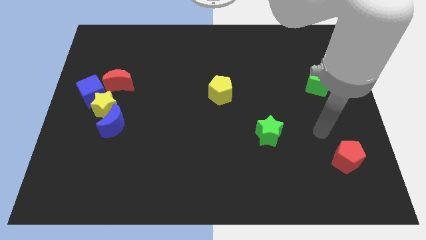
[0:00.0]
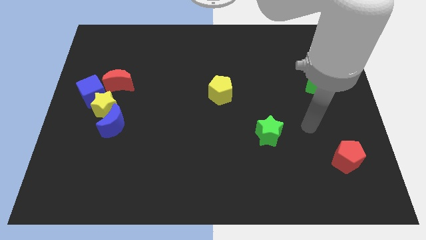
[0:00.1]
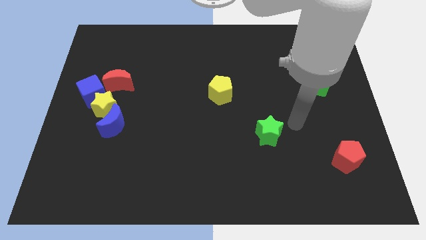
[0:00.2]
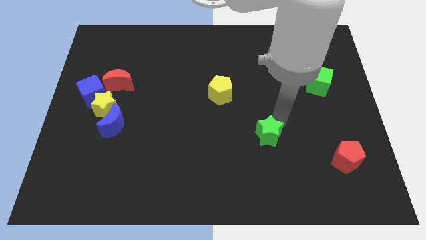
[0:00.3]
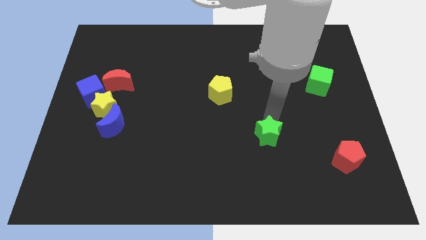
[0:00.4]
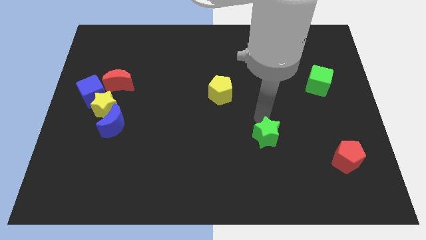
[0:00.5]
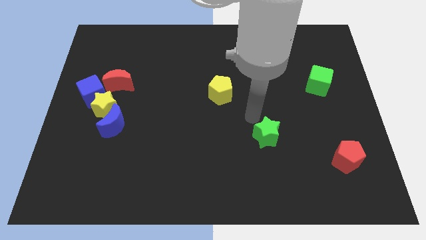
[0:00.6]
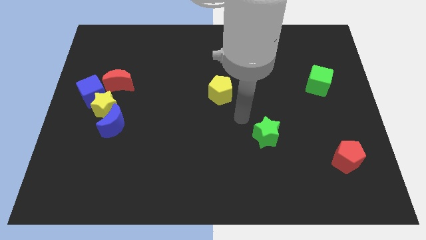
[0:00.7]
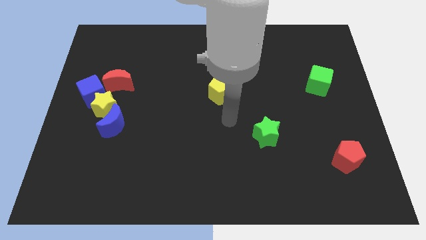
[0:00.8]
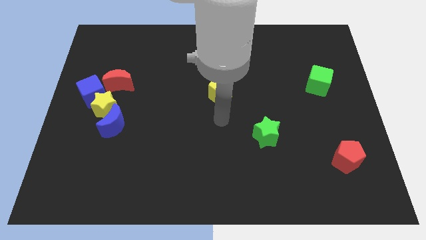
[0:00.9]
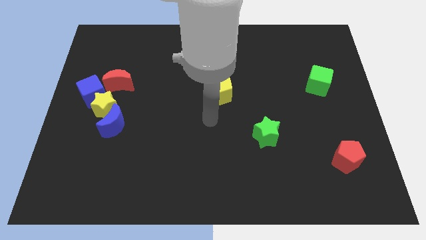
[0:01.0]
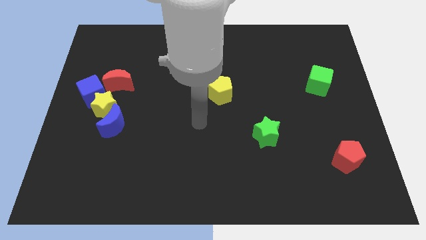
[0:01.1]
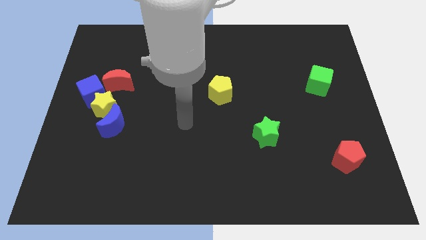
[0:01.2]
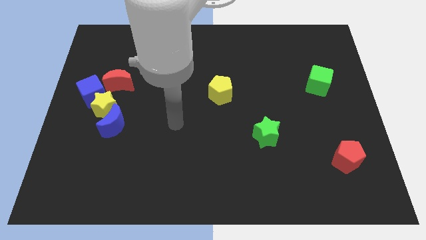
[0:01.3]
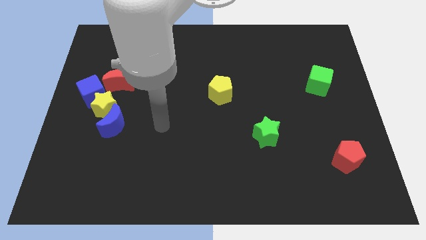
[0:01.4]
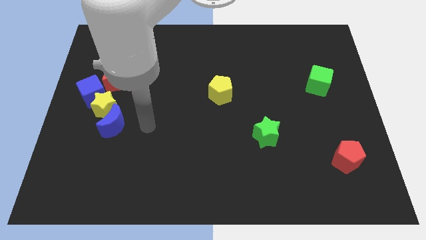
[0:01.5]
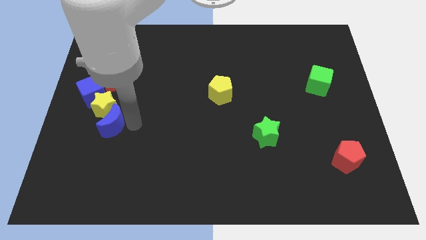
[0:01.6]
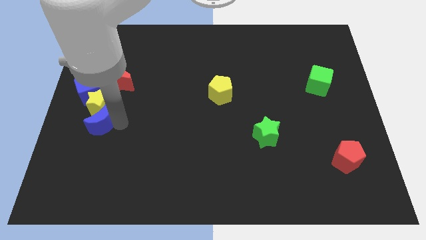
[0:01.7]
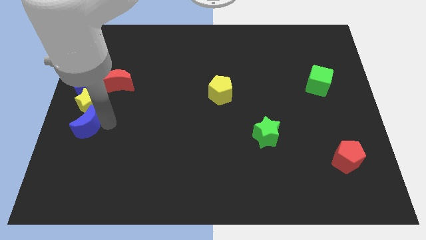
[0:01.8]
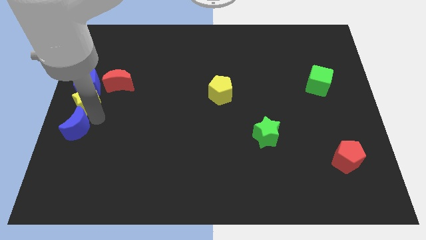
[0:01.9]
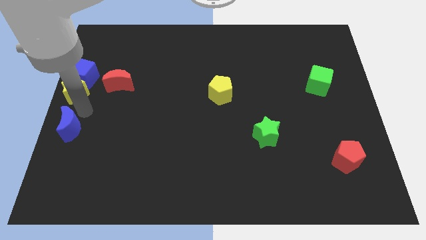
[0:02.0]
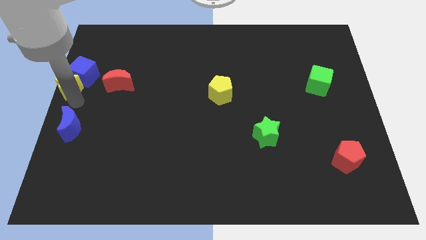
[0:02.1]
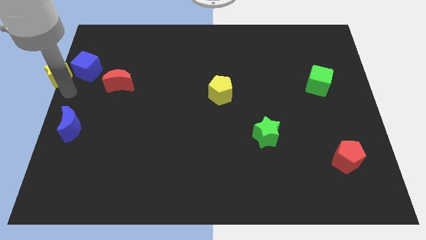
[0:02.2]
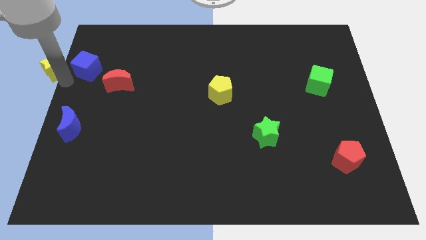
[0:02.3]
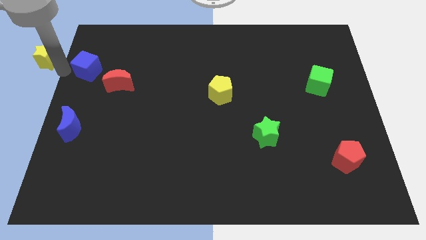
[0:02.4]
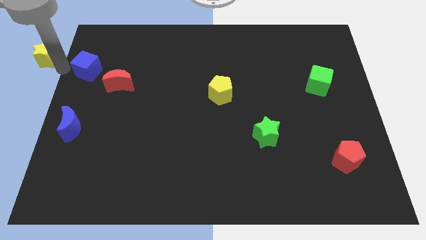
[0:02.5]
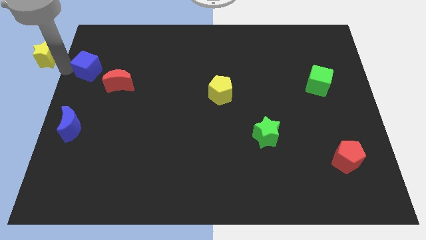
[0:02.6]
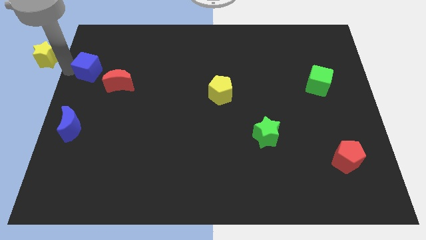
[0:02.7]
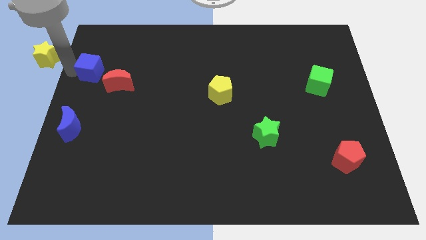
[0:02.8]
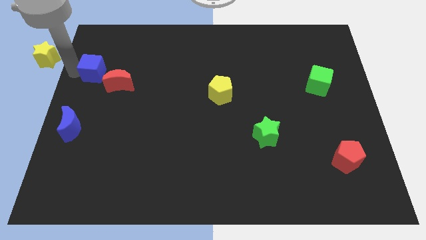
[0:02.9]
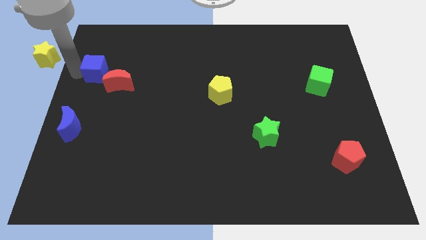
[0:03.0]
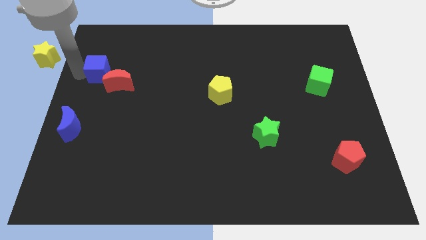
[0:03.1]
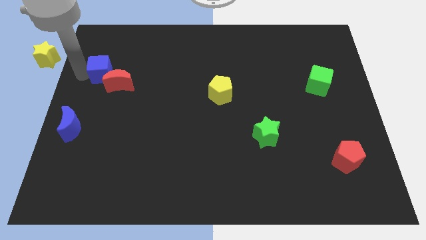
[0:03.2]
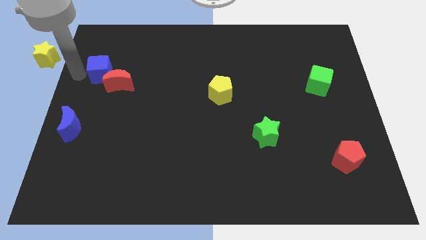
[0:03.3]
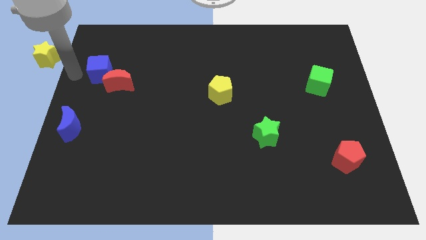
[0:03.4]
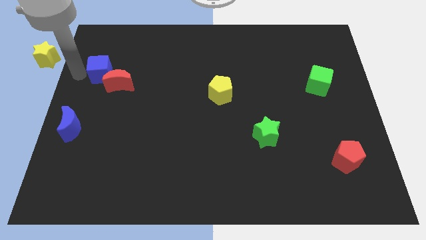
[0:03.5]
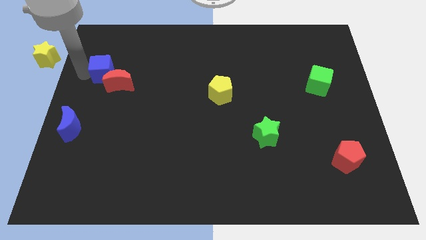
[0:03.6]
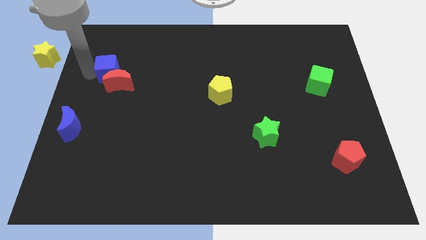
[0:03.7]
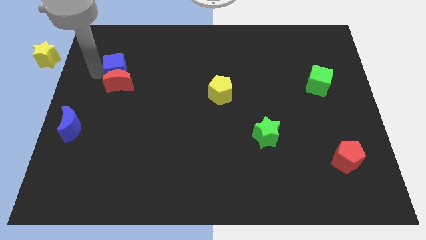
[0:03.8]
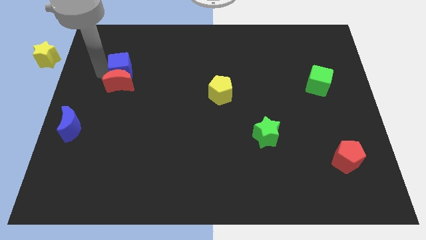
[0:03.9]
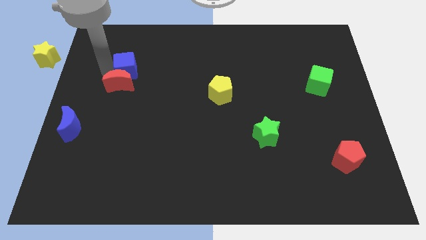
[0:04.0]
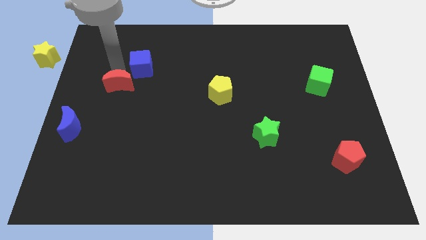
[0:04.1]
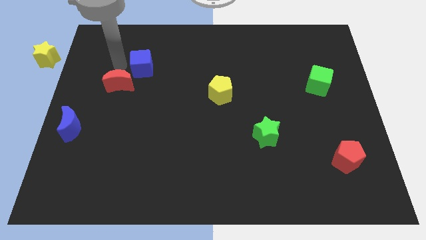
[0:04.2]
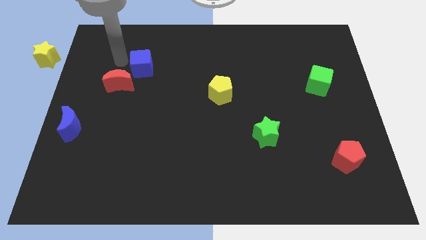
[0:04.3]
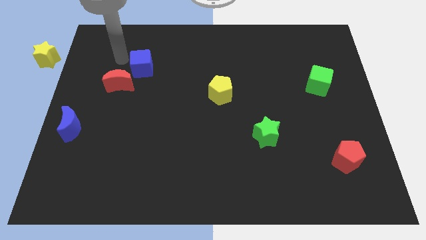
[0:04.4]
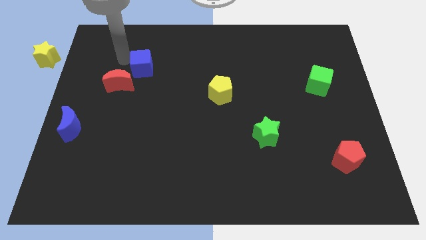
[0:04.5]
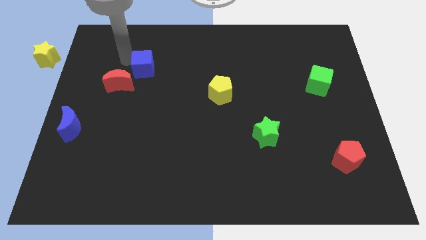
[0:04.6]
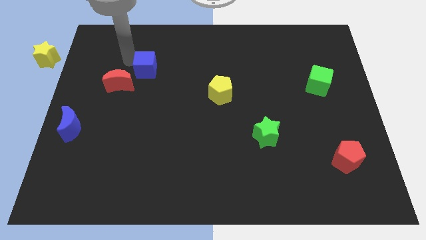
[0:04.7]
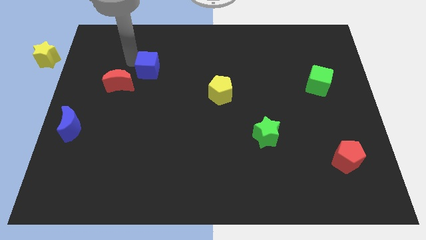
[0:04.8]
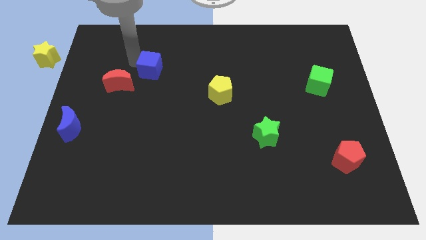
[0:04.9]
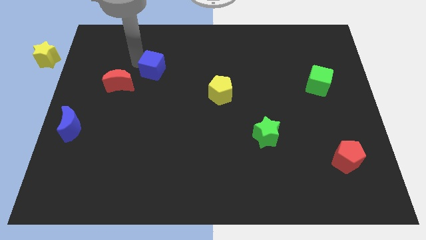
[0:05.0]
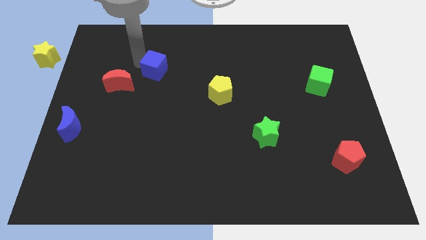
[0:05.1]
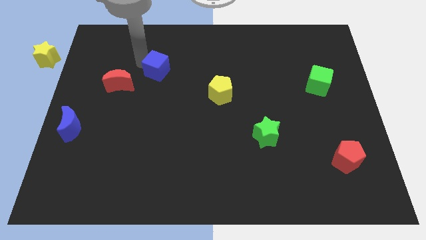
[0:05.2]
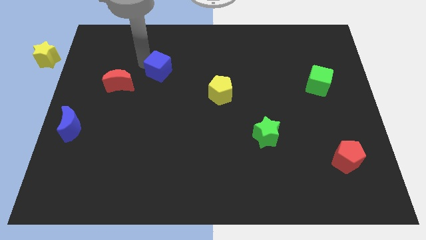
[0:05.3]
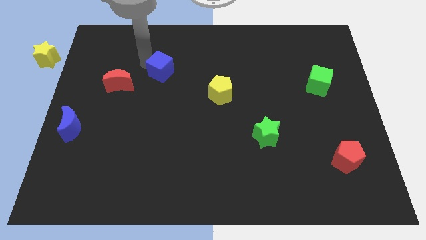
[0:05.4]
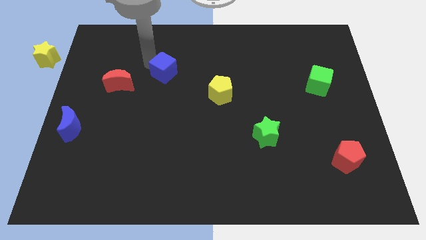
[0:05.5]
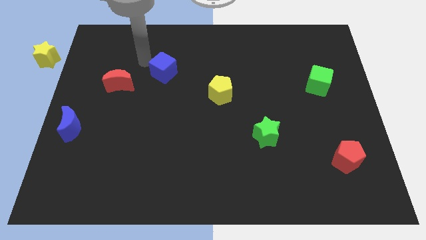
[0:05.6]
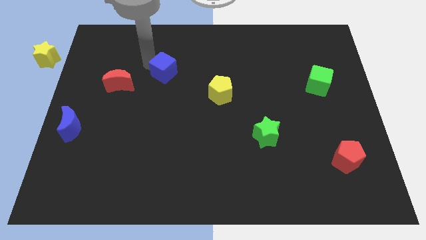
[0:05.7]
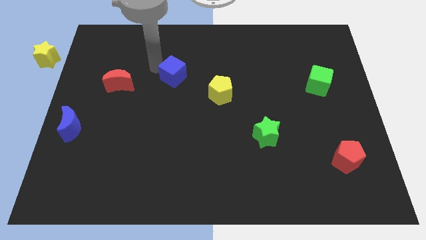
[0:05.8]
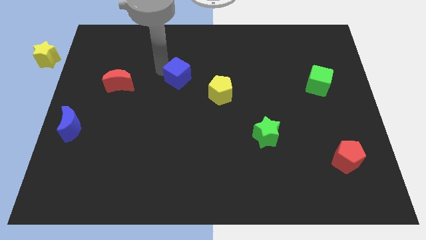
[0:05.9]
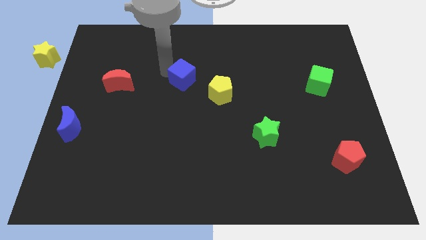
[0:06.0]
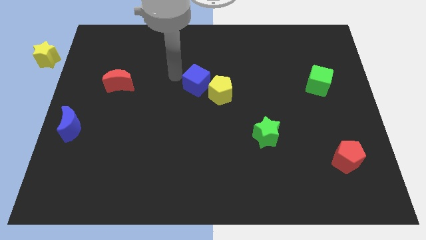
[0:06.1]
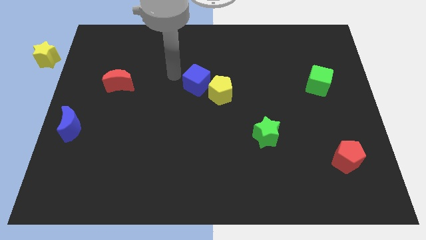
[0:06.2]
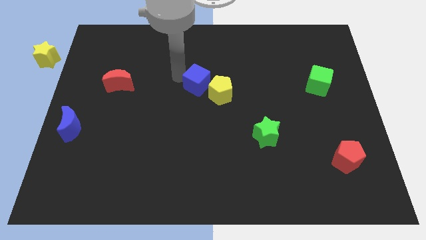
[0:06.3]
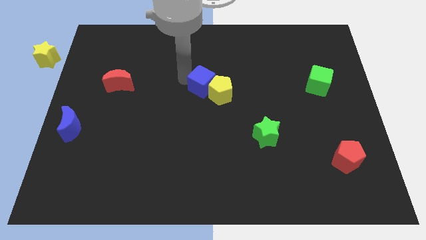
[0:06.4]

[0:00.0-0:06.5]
move the blue cube towards the yellow pentagon
